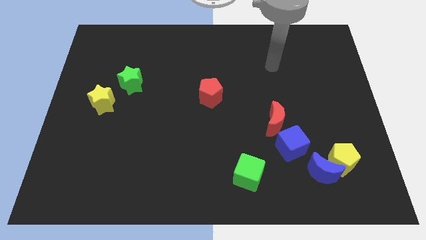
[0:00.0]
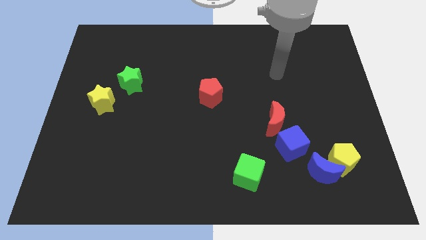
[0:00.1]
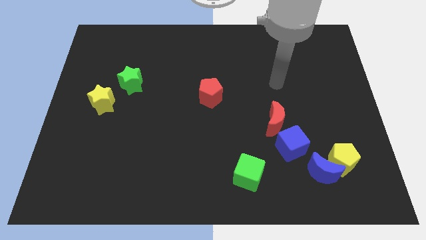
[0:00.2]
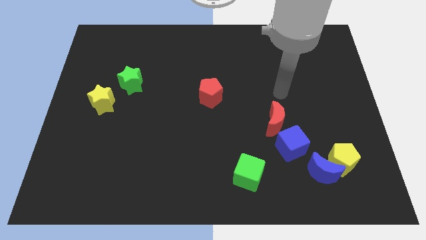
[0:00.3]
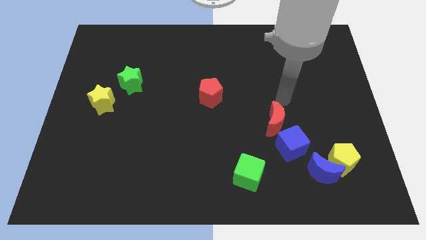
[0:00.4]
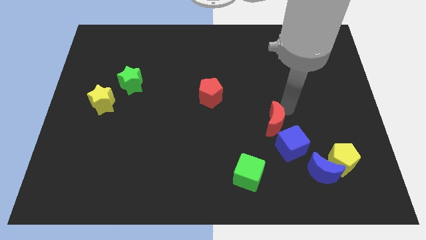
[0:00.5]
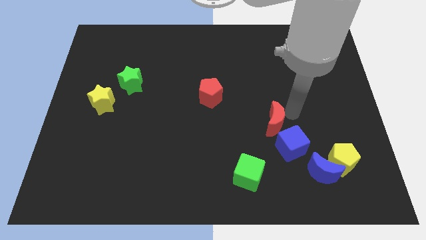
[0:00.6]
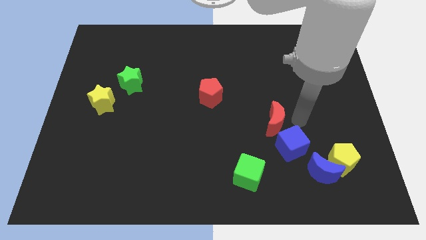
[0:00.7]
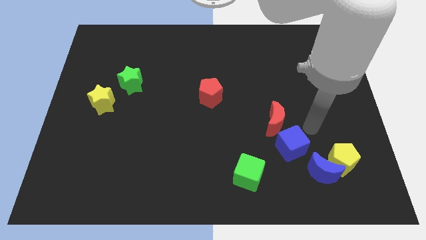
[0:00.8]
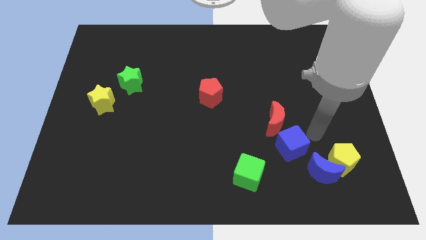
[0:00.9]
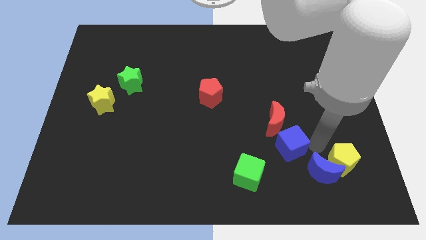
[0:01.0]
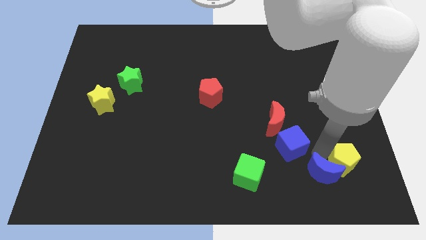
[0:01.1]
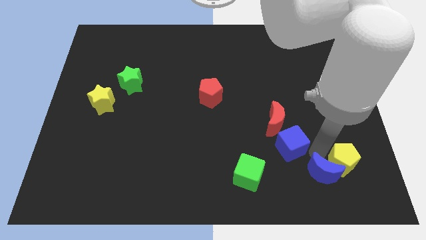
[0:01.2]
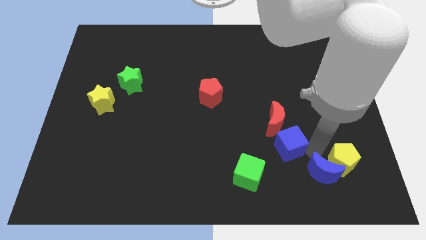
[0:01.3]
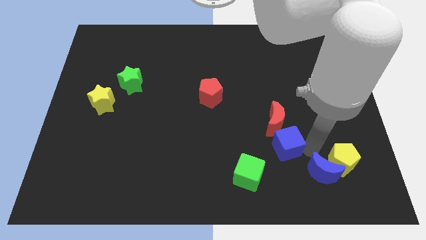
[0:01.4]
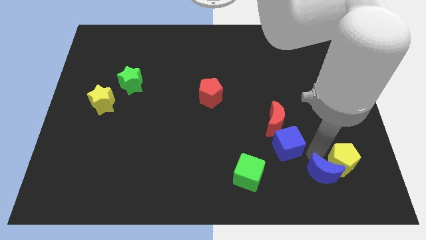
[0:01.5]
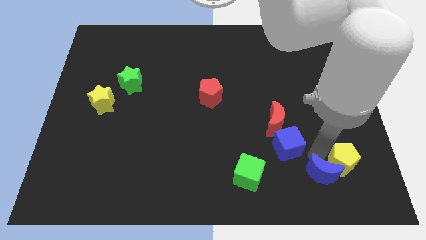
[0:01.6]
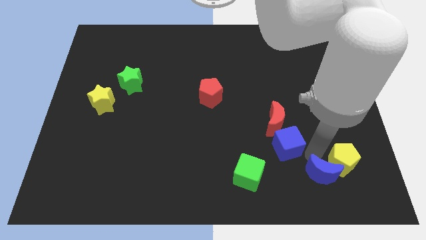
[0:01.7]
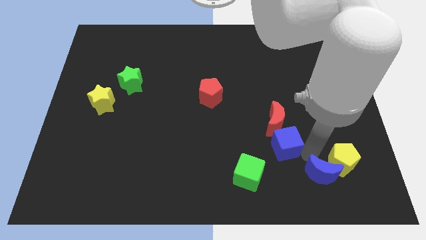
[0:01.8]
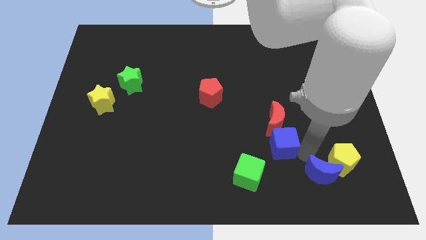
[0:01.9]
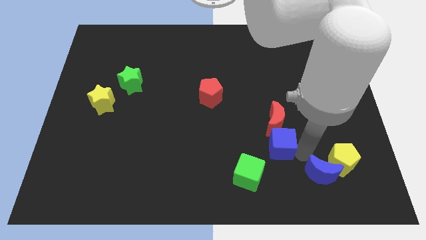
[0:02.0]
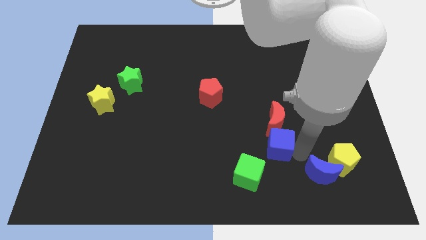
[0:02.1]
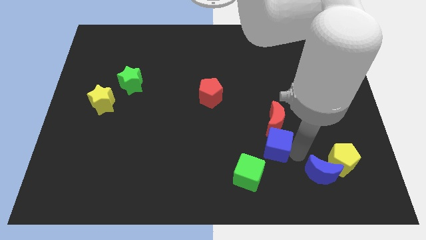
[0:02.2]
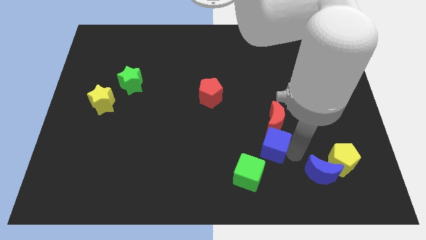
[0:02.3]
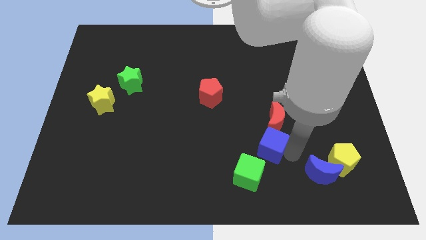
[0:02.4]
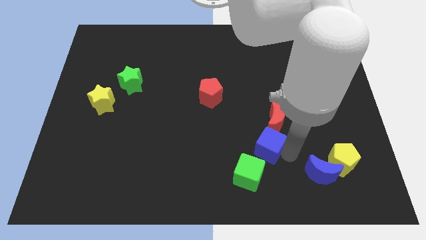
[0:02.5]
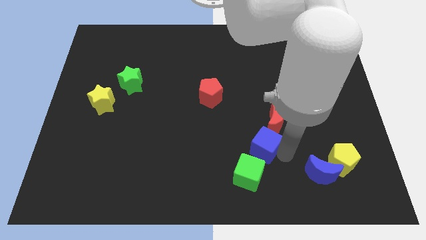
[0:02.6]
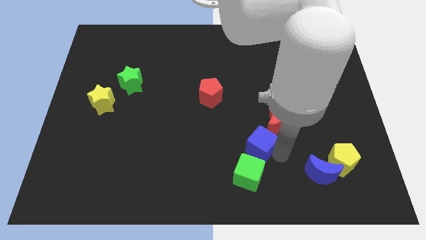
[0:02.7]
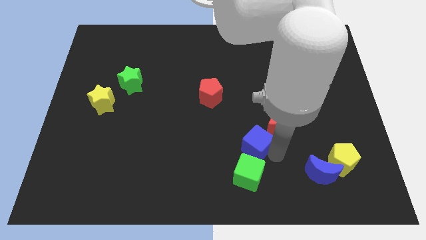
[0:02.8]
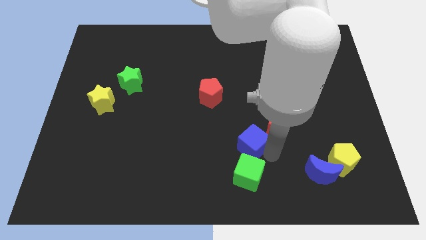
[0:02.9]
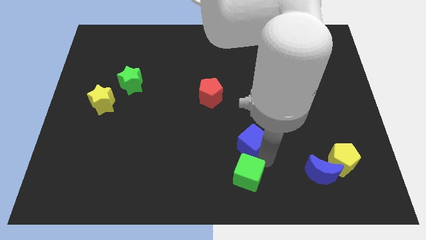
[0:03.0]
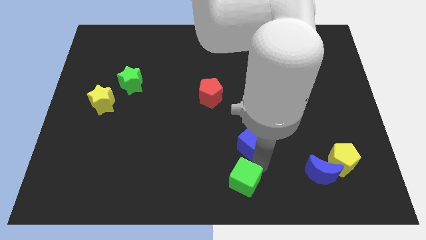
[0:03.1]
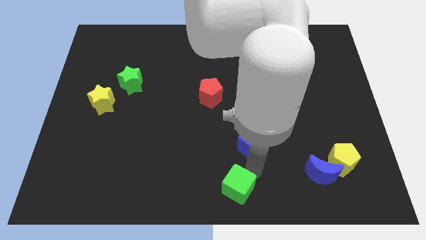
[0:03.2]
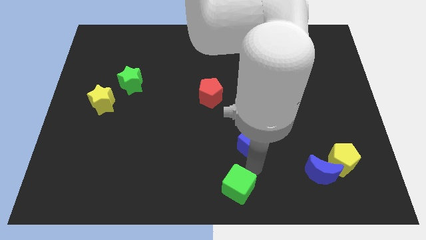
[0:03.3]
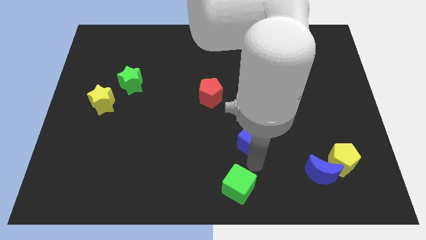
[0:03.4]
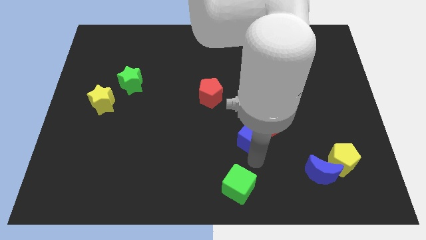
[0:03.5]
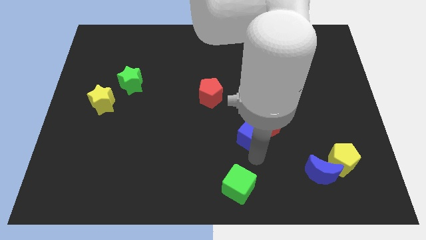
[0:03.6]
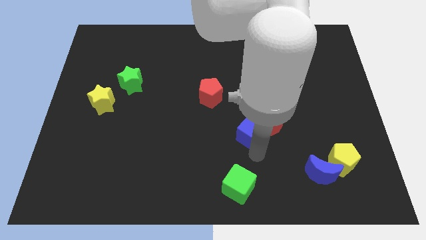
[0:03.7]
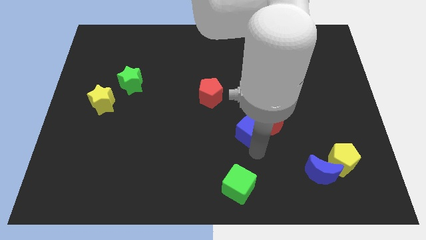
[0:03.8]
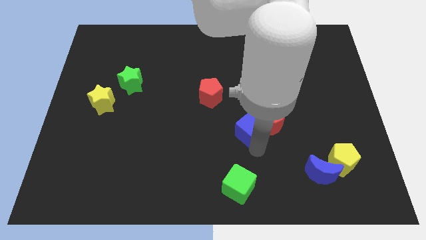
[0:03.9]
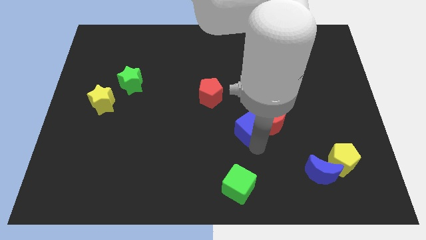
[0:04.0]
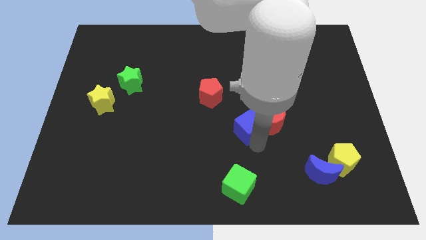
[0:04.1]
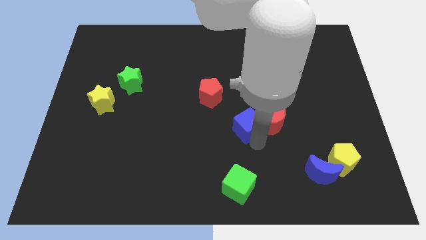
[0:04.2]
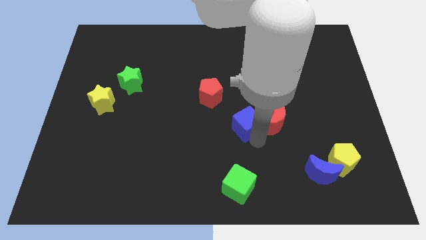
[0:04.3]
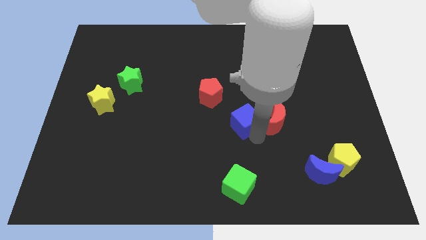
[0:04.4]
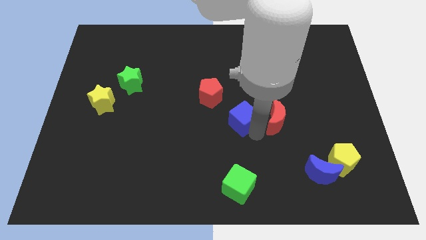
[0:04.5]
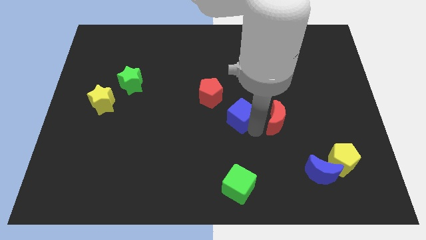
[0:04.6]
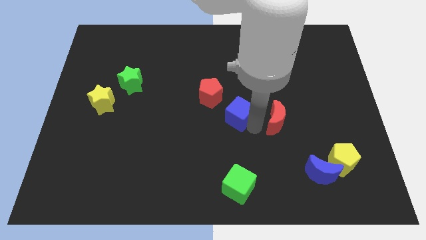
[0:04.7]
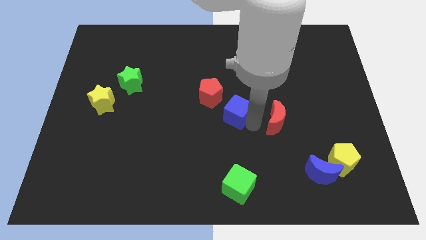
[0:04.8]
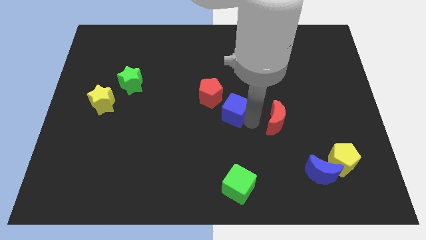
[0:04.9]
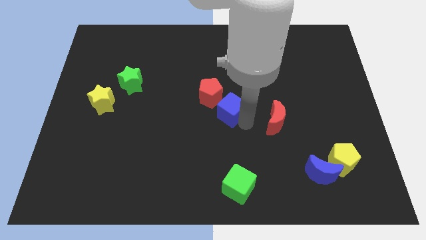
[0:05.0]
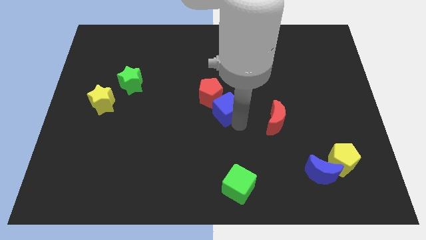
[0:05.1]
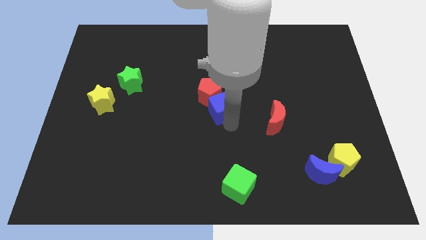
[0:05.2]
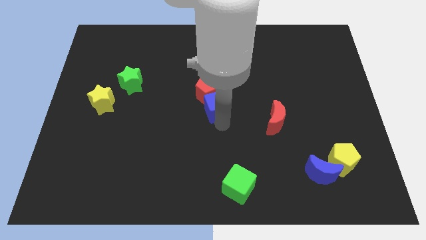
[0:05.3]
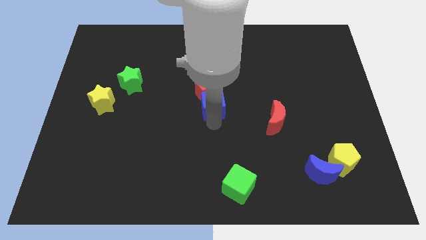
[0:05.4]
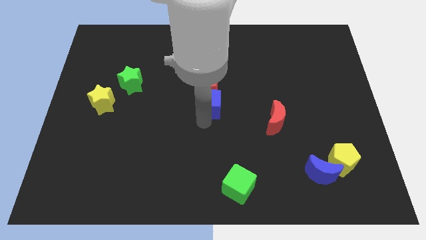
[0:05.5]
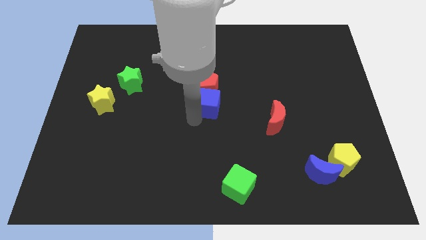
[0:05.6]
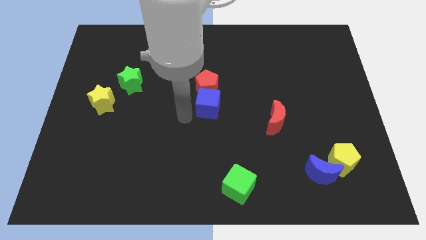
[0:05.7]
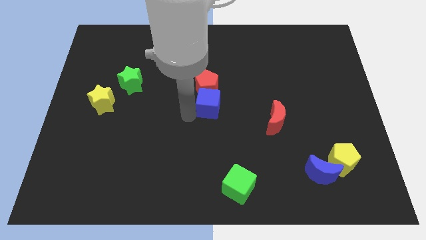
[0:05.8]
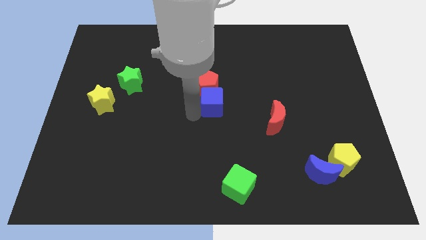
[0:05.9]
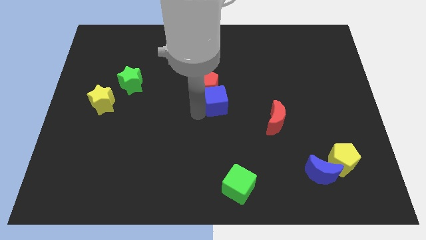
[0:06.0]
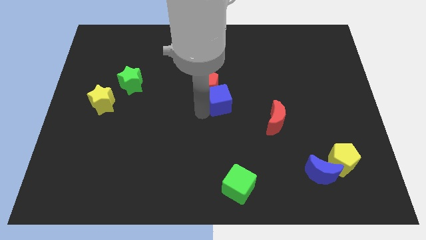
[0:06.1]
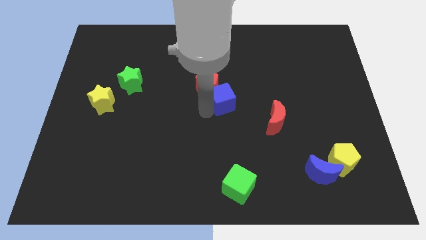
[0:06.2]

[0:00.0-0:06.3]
push the blue cube to the right side of the red pentagon

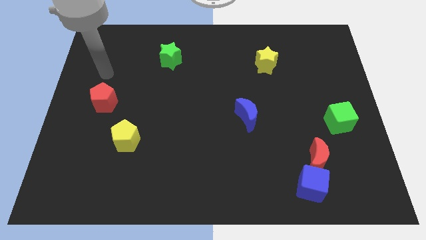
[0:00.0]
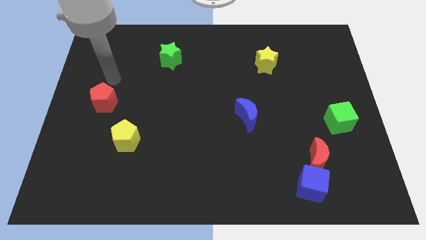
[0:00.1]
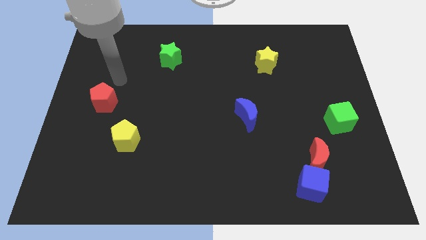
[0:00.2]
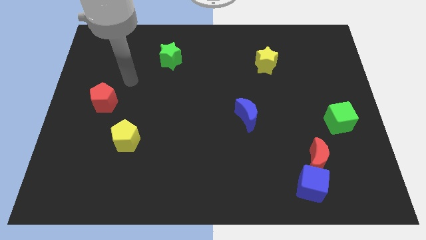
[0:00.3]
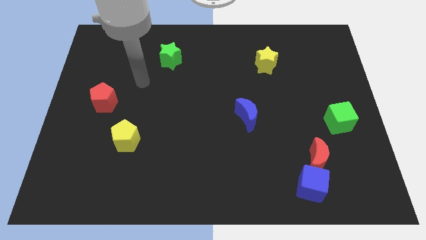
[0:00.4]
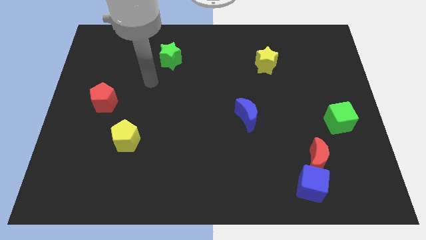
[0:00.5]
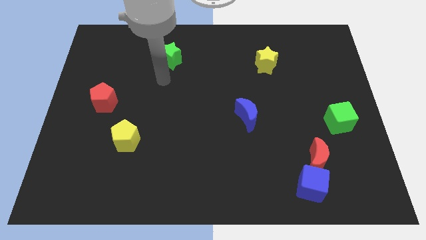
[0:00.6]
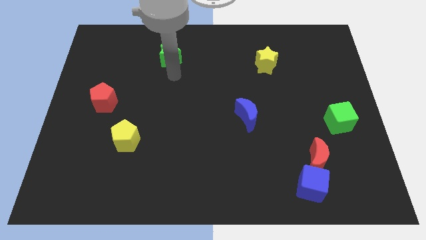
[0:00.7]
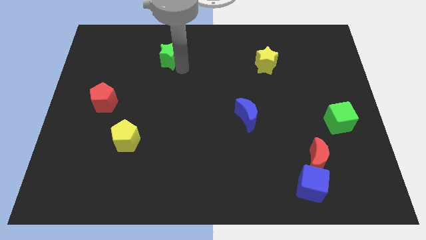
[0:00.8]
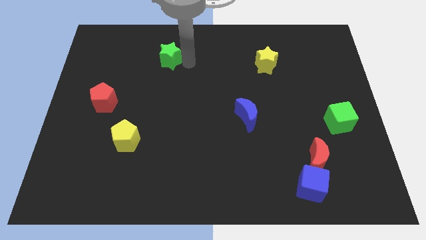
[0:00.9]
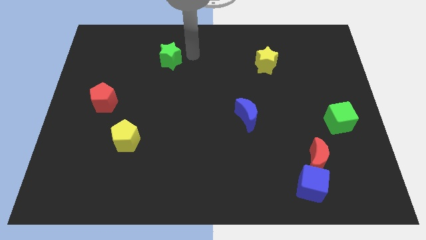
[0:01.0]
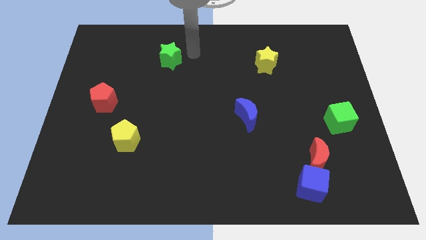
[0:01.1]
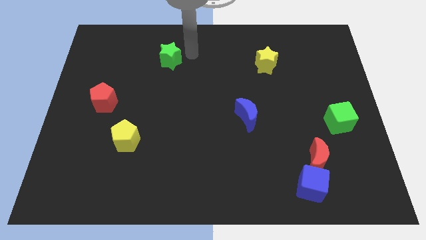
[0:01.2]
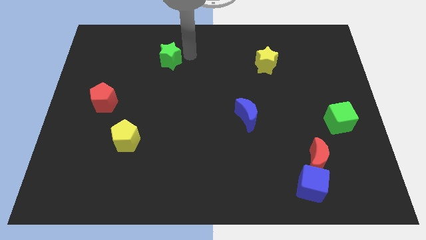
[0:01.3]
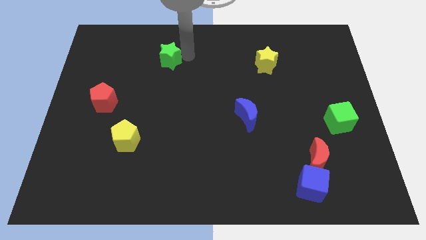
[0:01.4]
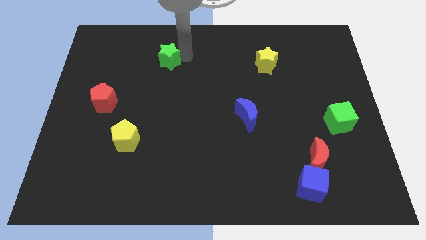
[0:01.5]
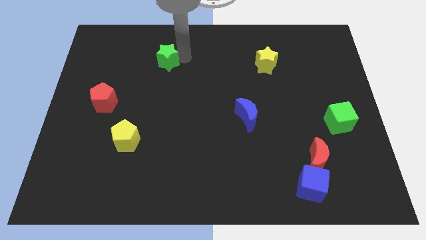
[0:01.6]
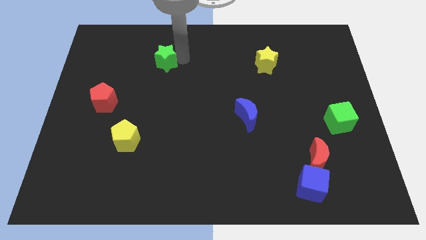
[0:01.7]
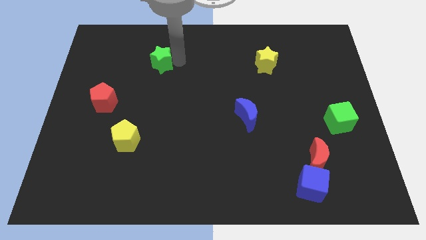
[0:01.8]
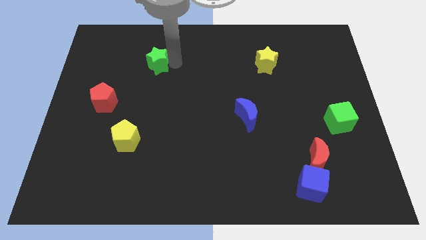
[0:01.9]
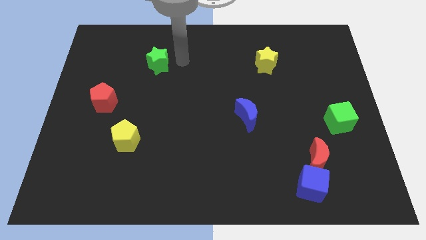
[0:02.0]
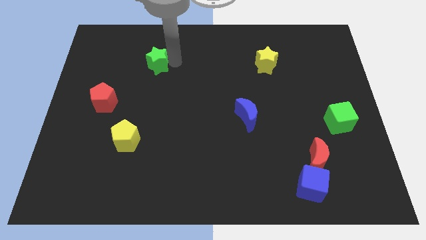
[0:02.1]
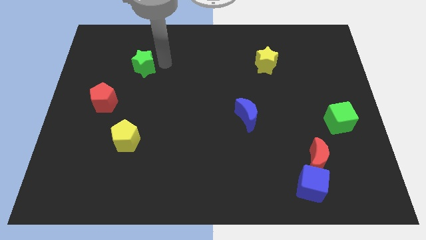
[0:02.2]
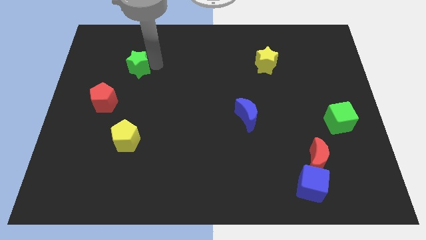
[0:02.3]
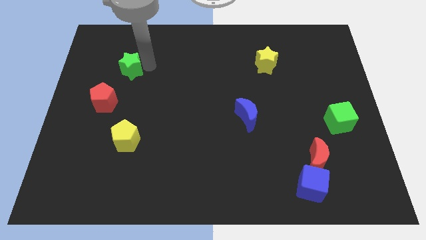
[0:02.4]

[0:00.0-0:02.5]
push the green star to the top of the red pentagon
